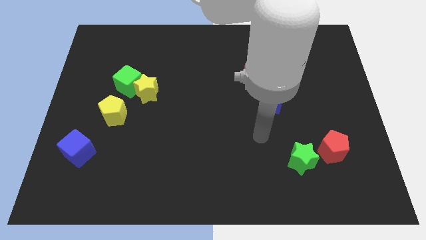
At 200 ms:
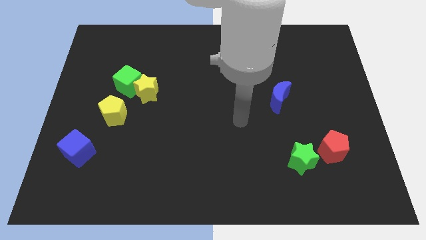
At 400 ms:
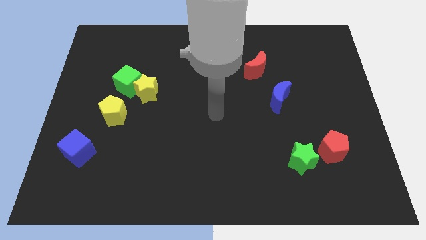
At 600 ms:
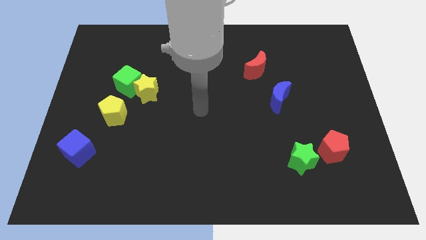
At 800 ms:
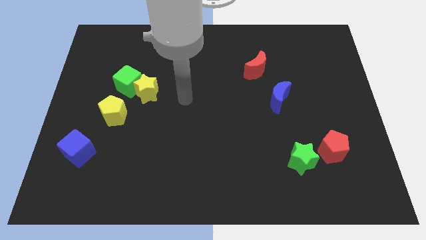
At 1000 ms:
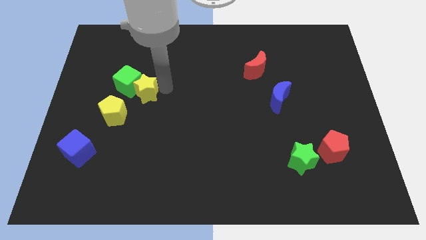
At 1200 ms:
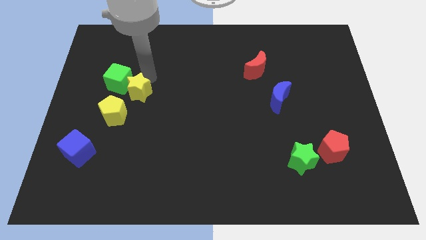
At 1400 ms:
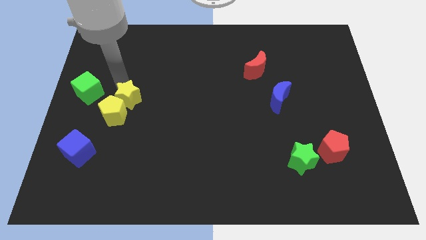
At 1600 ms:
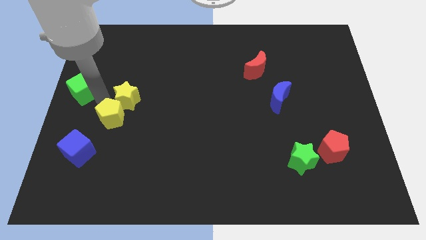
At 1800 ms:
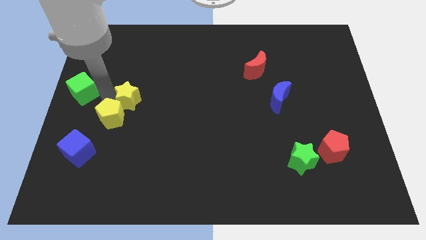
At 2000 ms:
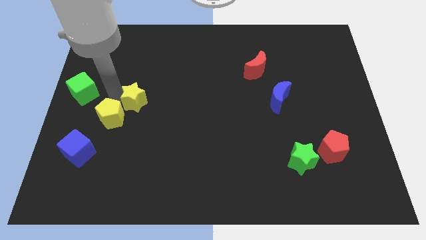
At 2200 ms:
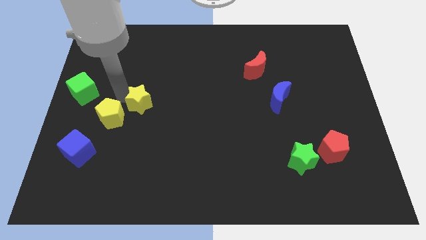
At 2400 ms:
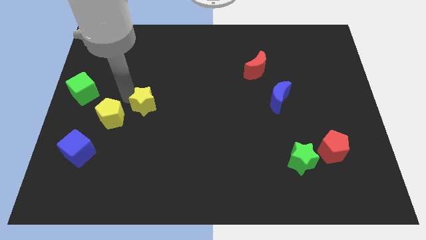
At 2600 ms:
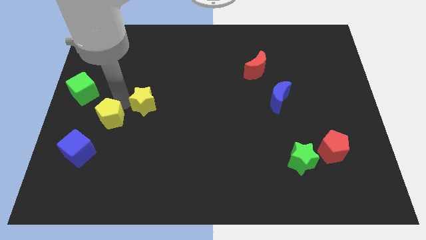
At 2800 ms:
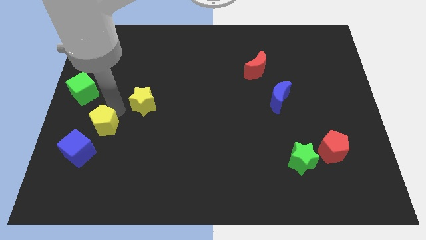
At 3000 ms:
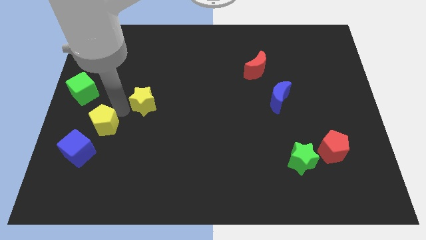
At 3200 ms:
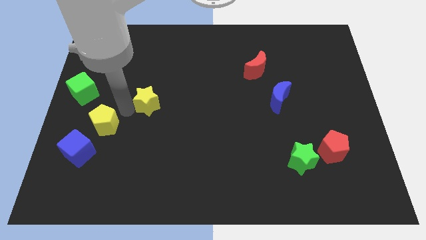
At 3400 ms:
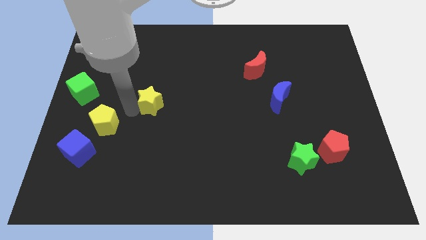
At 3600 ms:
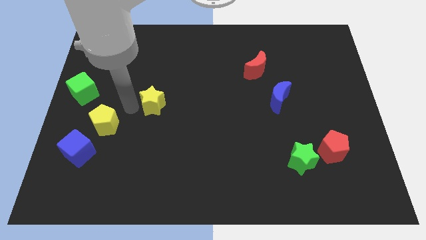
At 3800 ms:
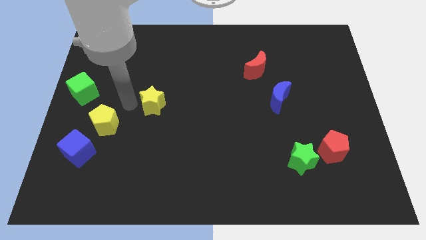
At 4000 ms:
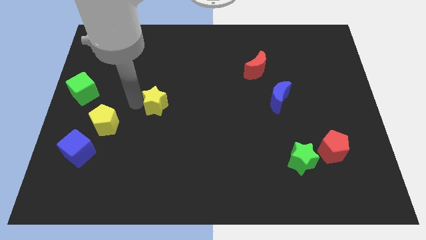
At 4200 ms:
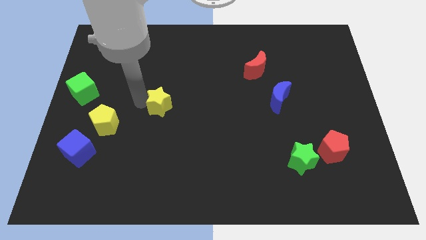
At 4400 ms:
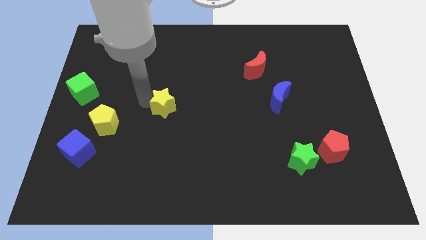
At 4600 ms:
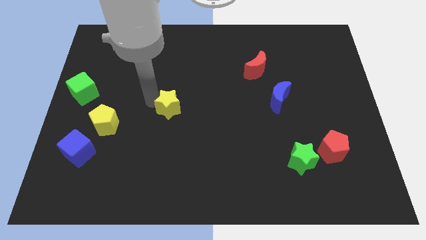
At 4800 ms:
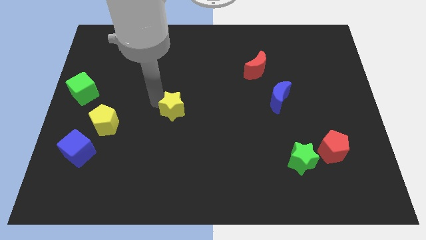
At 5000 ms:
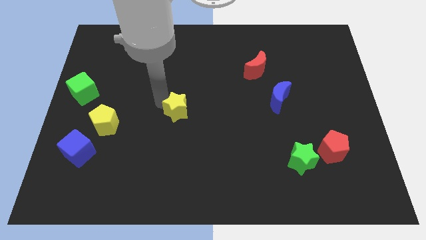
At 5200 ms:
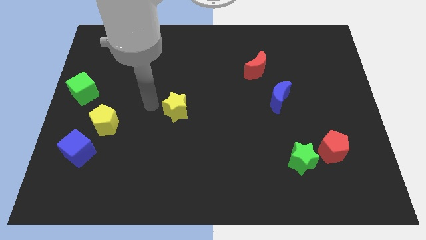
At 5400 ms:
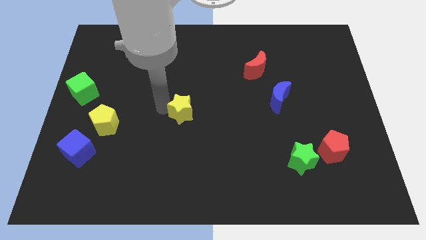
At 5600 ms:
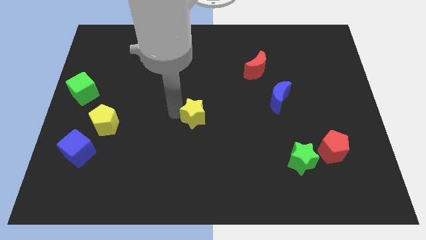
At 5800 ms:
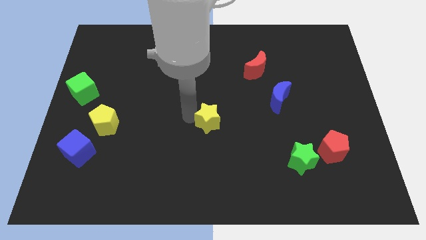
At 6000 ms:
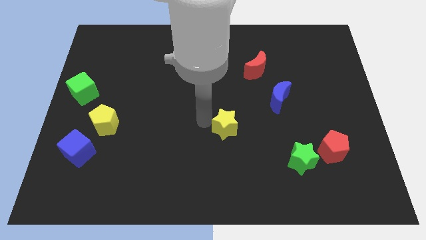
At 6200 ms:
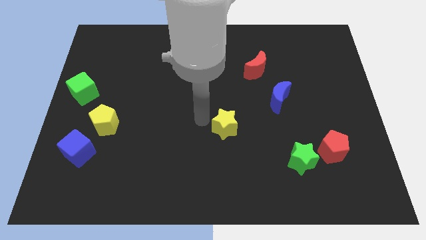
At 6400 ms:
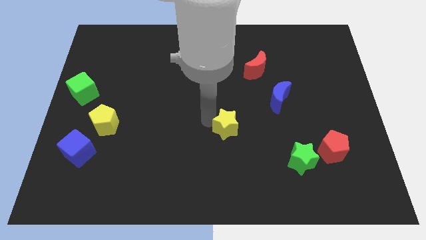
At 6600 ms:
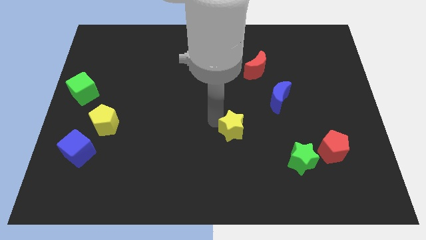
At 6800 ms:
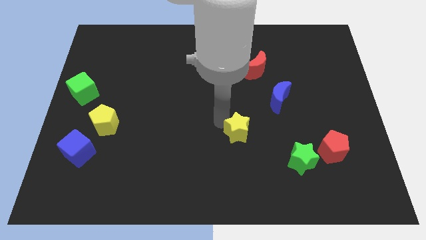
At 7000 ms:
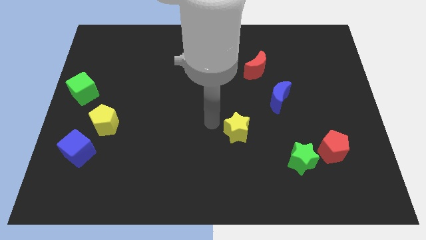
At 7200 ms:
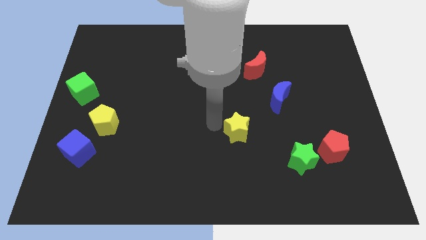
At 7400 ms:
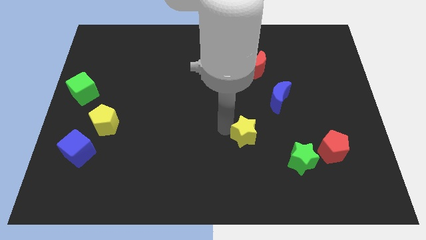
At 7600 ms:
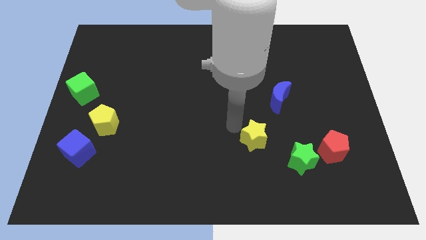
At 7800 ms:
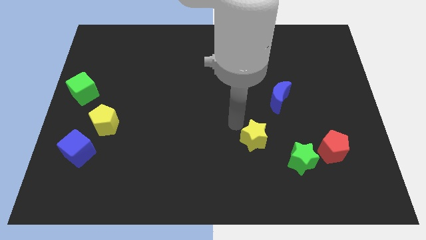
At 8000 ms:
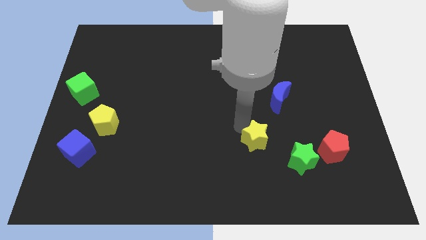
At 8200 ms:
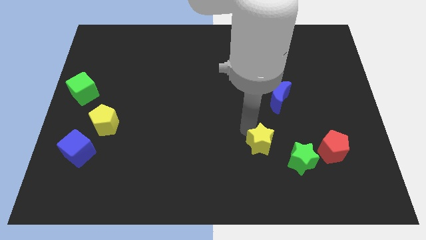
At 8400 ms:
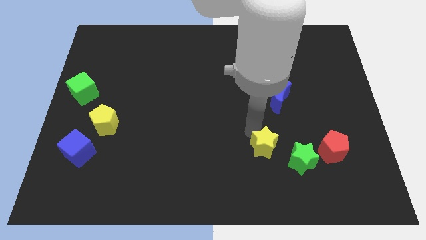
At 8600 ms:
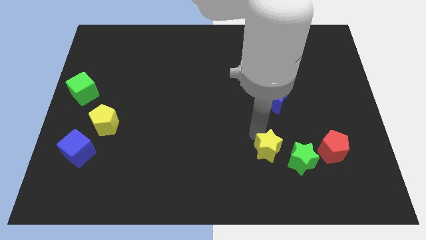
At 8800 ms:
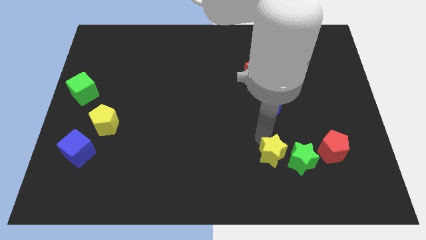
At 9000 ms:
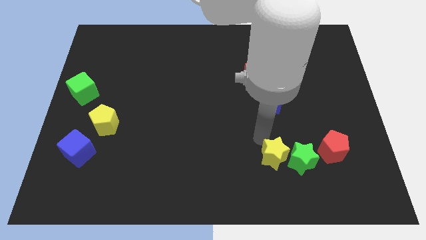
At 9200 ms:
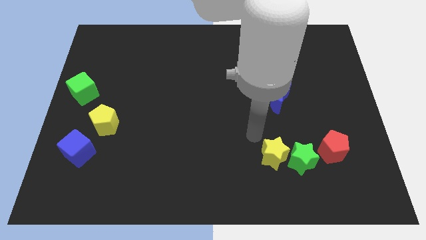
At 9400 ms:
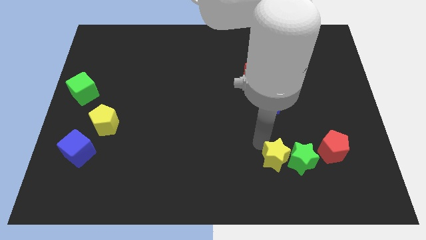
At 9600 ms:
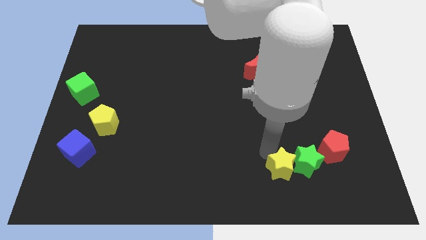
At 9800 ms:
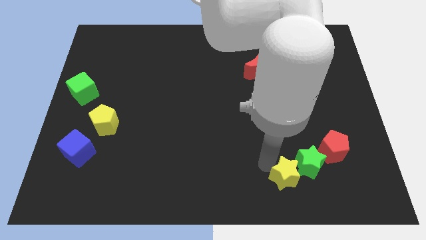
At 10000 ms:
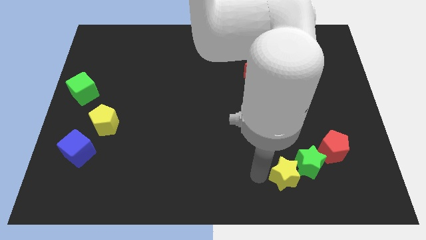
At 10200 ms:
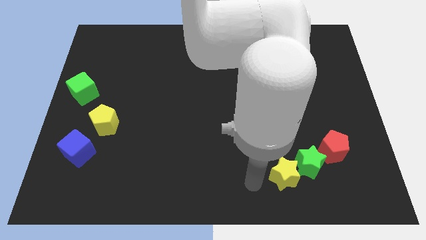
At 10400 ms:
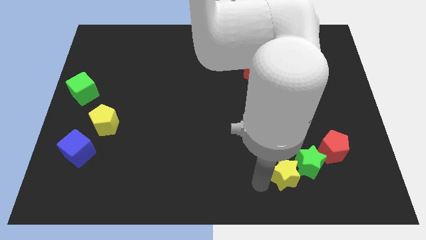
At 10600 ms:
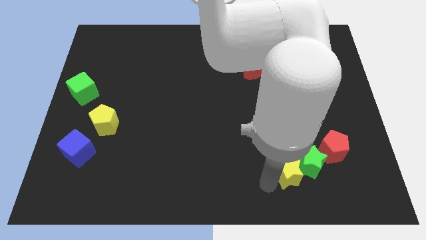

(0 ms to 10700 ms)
push the yellow star diagonally down and to the left of the red pentagon

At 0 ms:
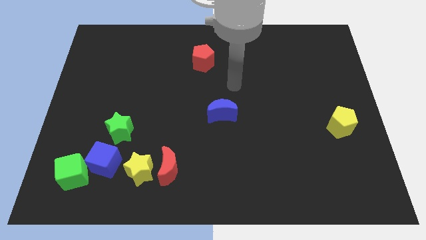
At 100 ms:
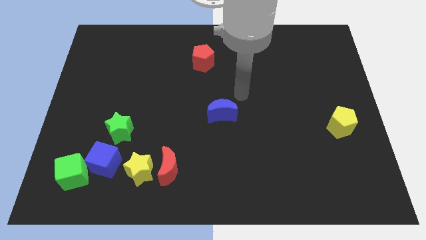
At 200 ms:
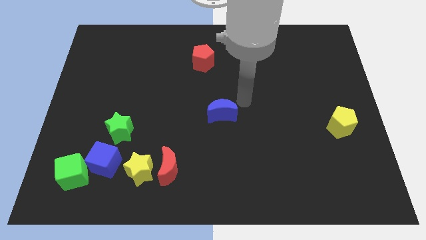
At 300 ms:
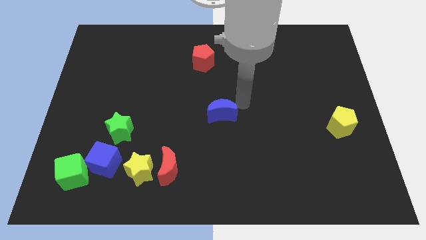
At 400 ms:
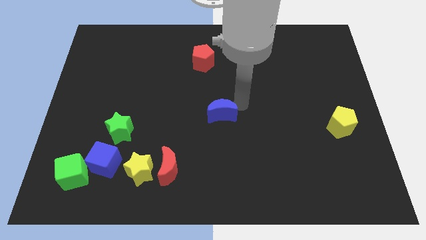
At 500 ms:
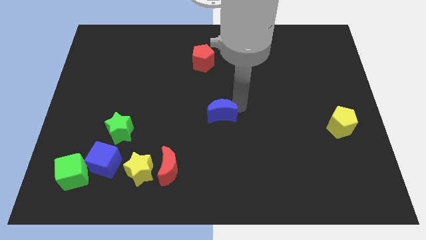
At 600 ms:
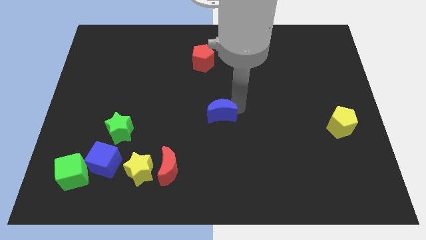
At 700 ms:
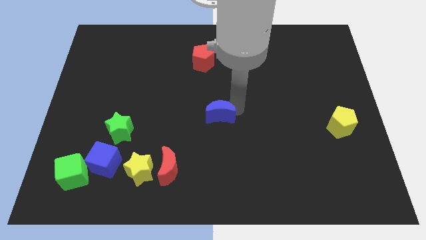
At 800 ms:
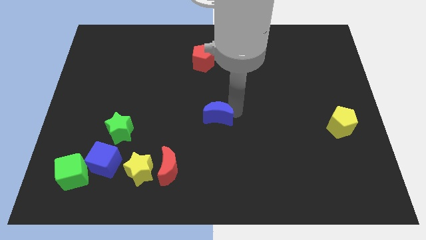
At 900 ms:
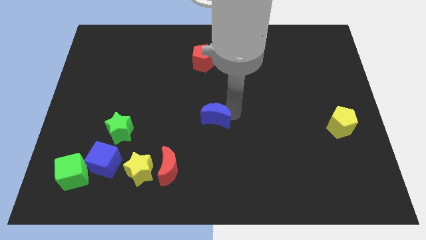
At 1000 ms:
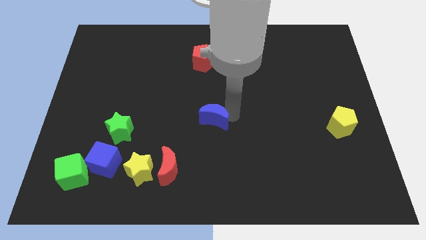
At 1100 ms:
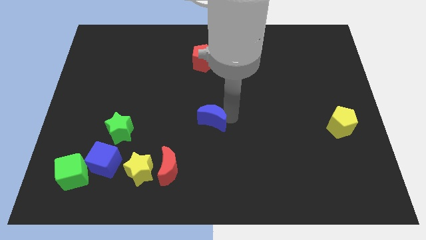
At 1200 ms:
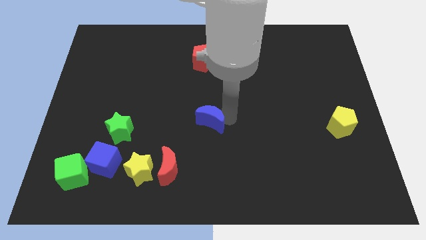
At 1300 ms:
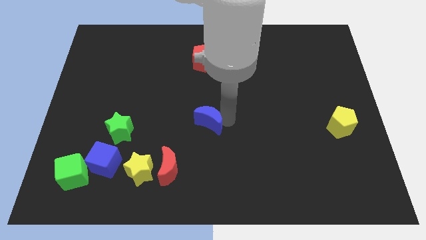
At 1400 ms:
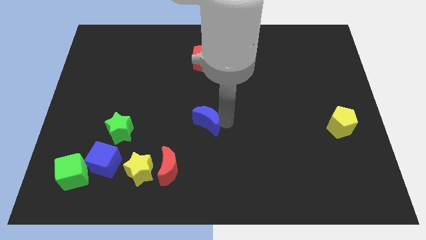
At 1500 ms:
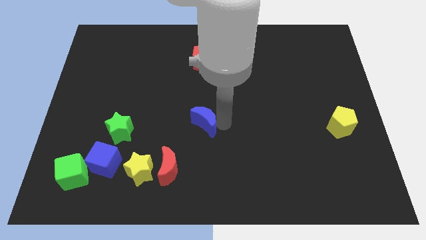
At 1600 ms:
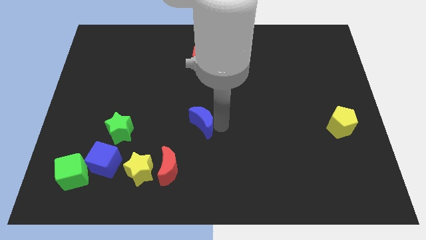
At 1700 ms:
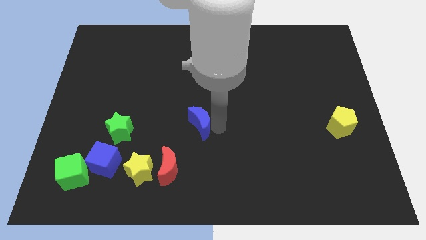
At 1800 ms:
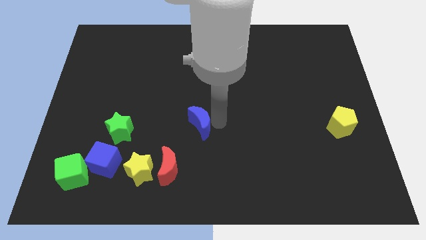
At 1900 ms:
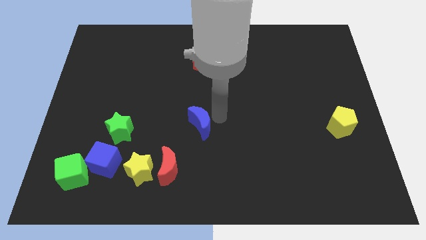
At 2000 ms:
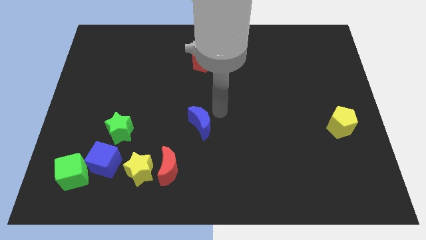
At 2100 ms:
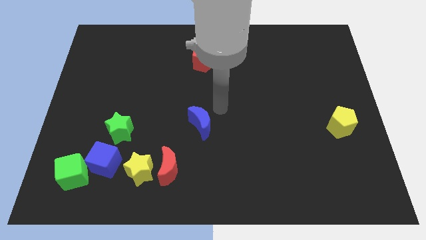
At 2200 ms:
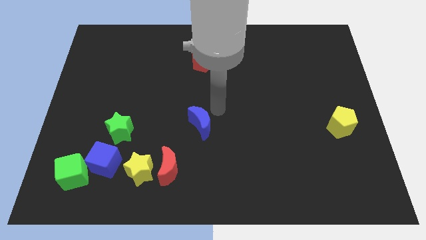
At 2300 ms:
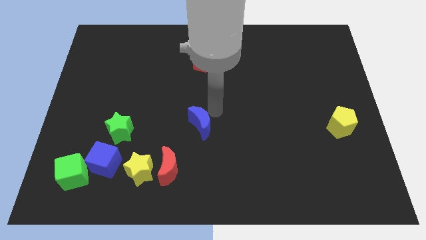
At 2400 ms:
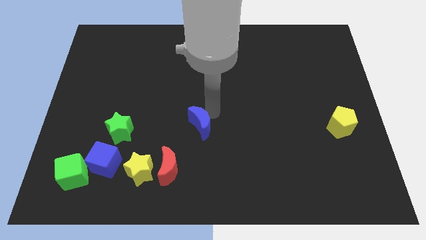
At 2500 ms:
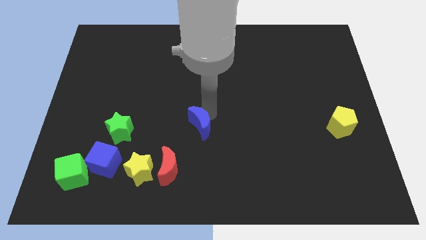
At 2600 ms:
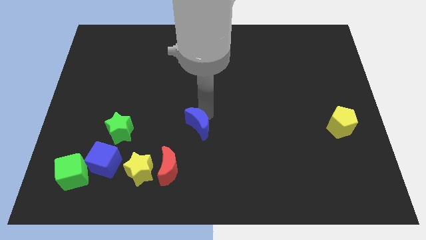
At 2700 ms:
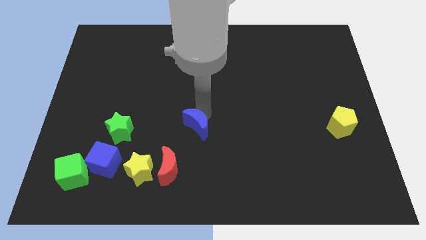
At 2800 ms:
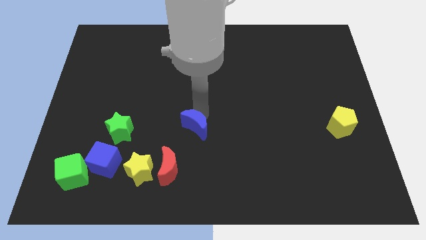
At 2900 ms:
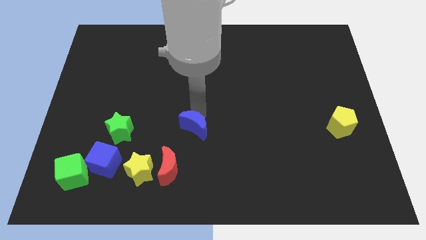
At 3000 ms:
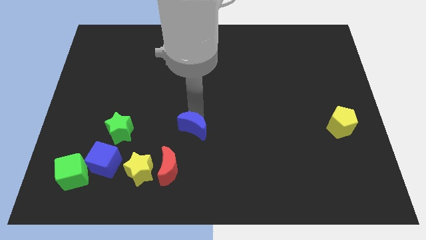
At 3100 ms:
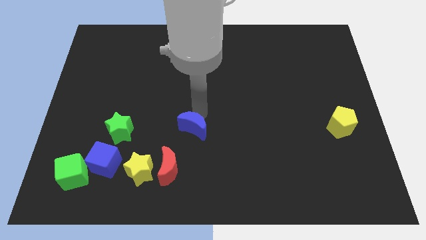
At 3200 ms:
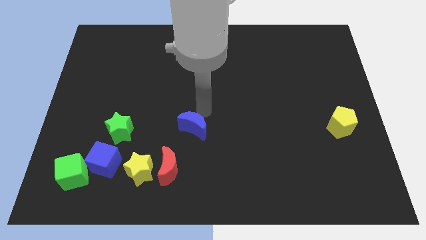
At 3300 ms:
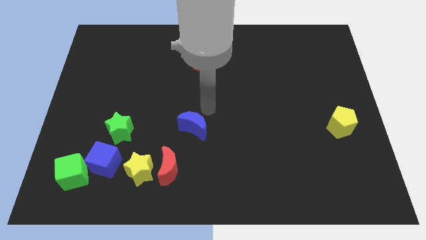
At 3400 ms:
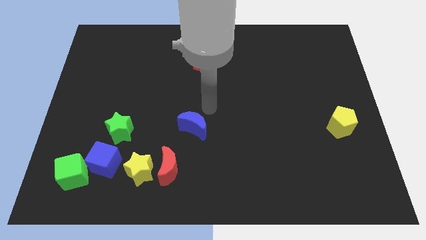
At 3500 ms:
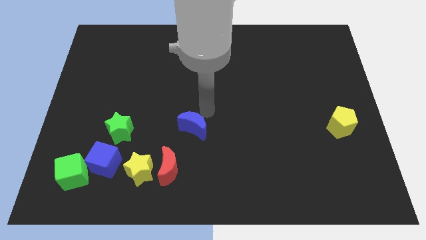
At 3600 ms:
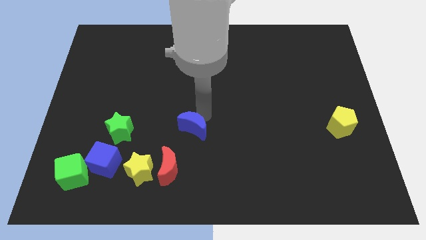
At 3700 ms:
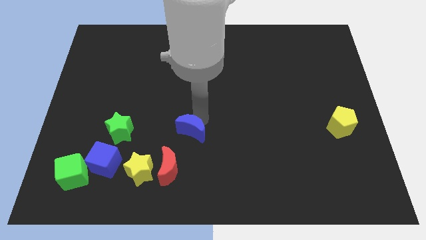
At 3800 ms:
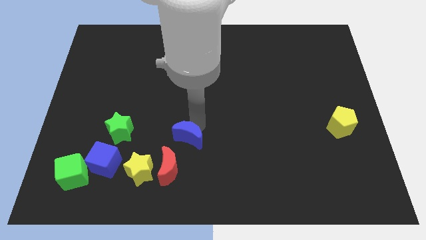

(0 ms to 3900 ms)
move the blue moon to the top right of the yellow star
